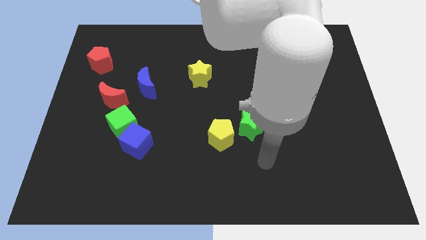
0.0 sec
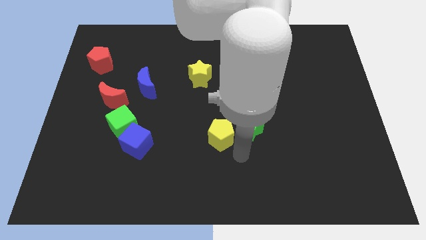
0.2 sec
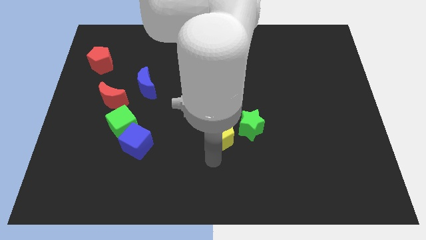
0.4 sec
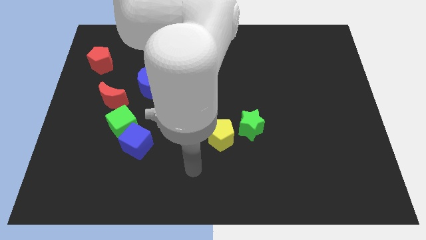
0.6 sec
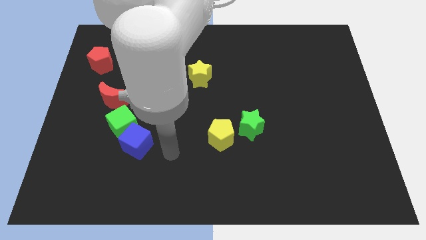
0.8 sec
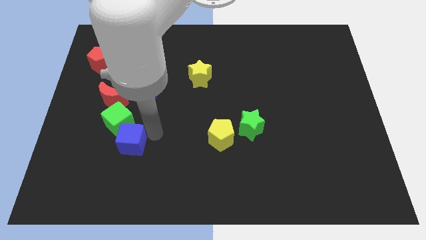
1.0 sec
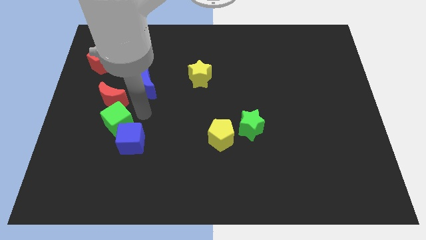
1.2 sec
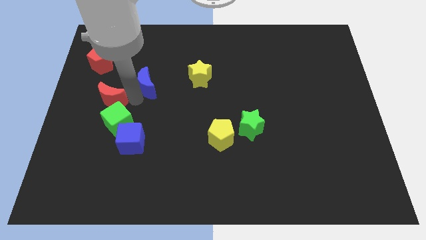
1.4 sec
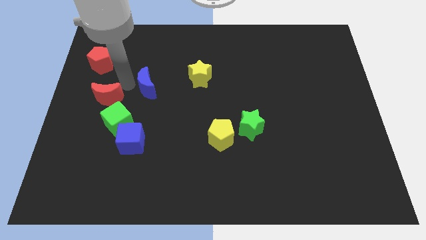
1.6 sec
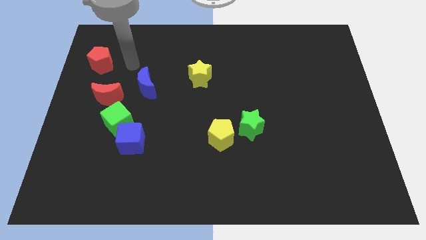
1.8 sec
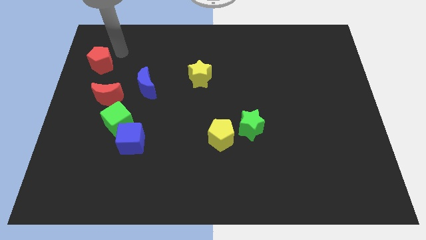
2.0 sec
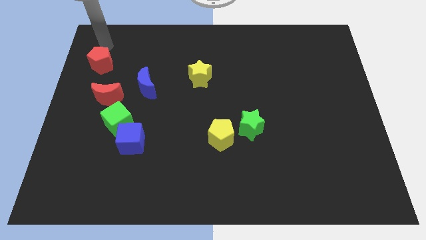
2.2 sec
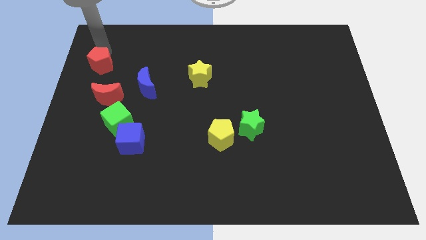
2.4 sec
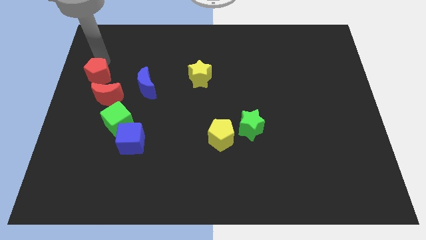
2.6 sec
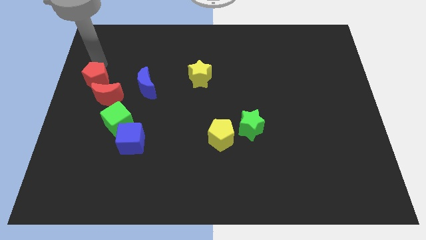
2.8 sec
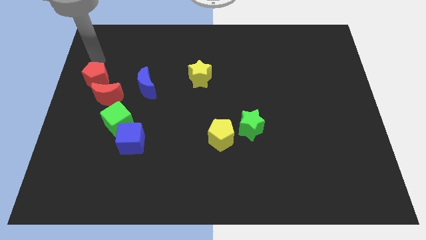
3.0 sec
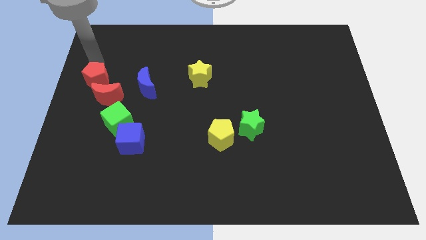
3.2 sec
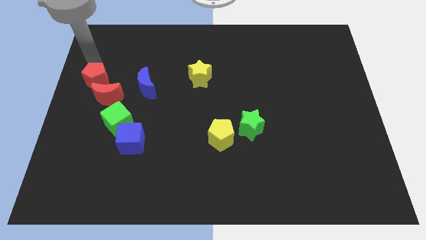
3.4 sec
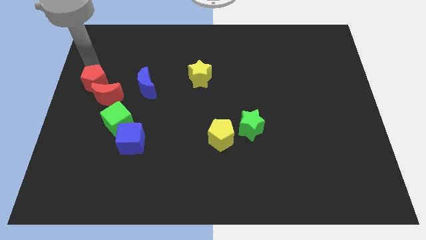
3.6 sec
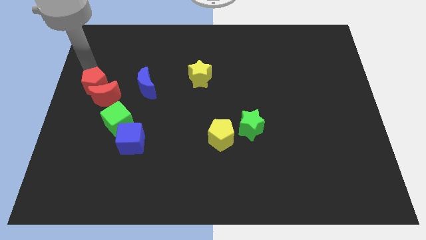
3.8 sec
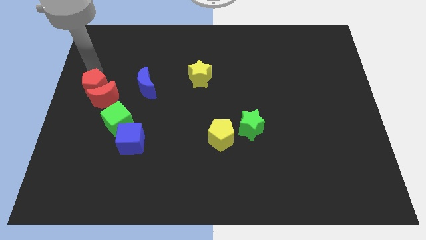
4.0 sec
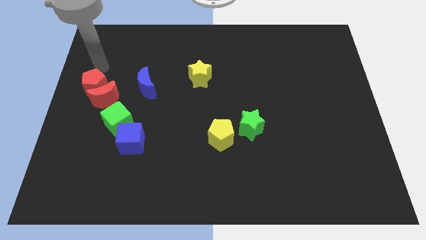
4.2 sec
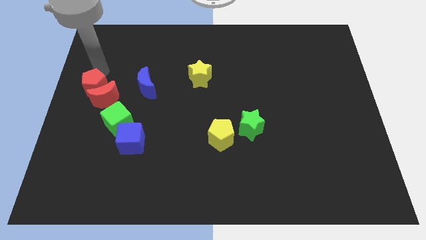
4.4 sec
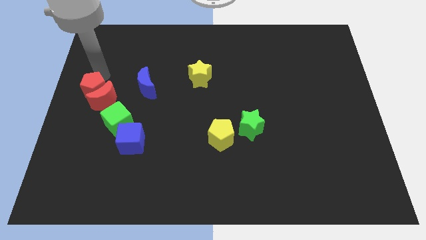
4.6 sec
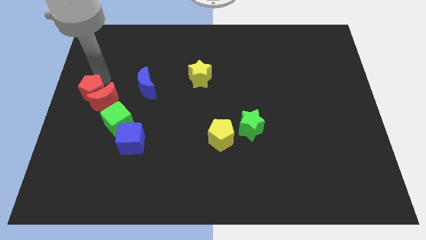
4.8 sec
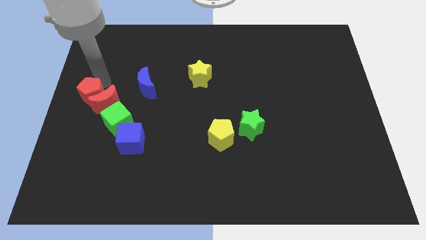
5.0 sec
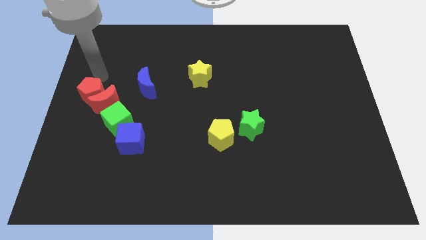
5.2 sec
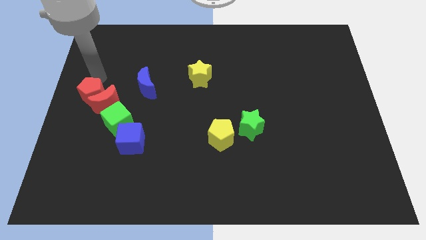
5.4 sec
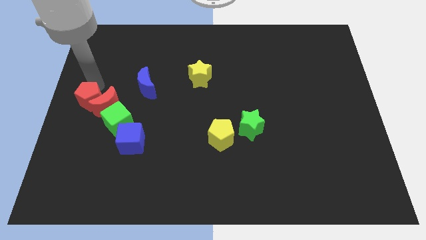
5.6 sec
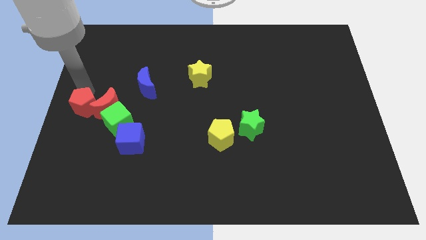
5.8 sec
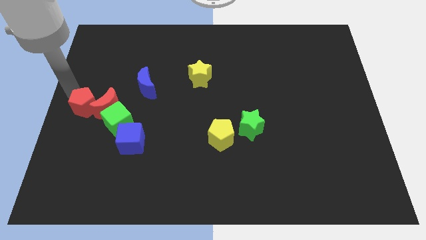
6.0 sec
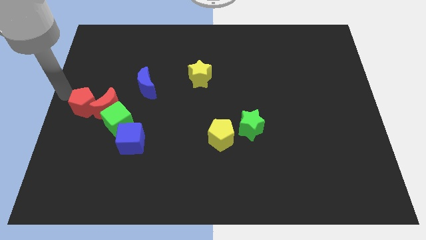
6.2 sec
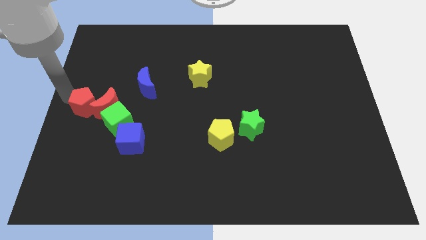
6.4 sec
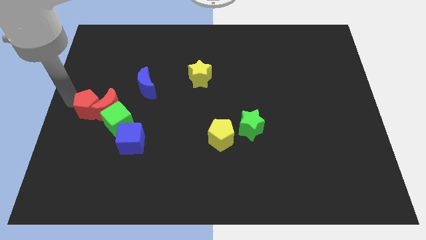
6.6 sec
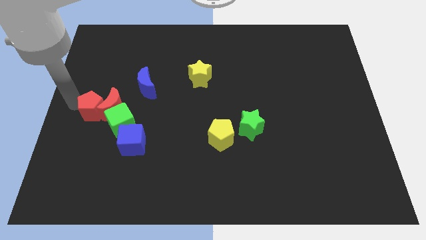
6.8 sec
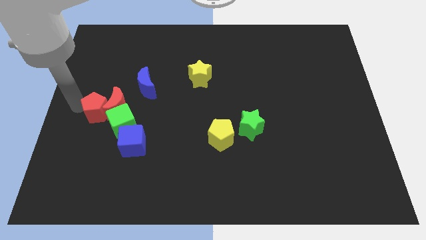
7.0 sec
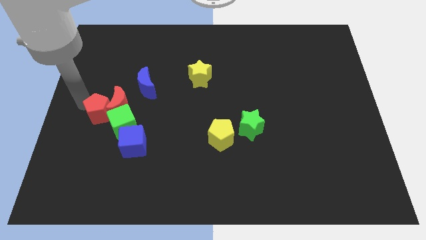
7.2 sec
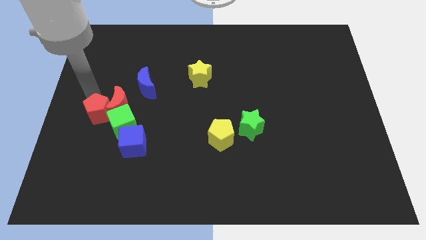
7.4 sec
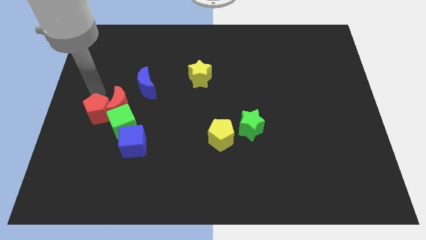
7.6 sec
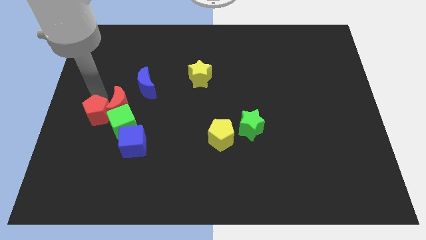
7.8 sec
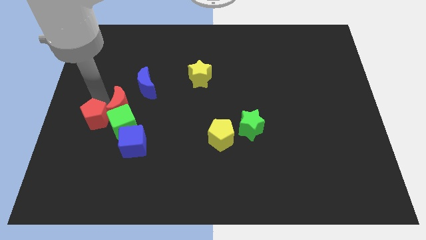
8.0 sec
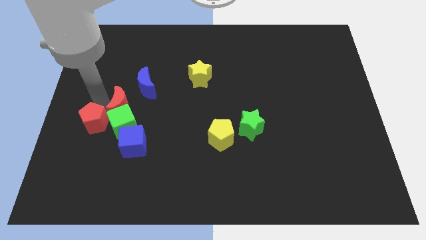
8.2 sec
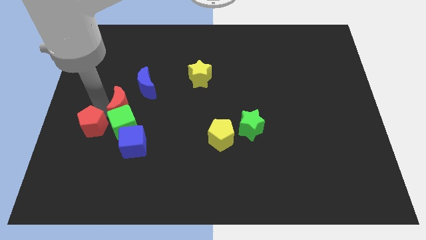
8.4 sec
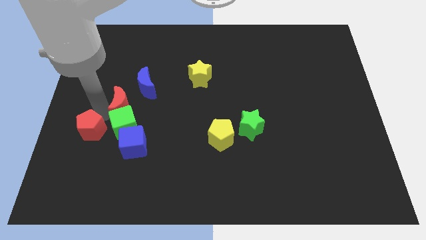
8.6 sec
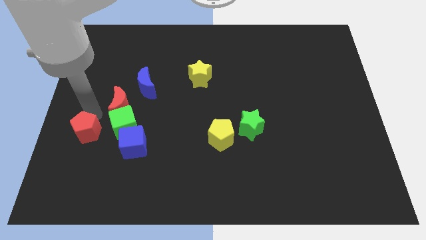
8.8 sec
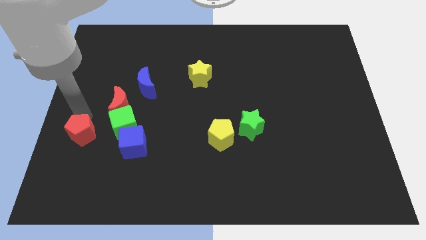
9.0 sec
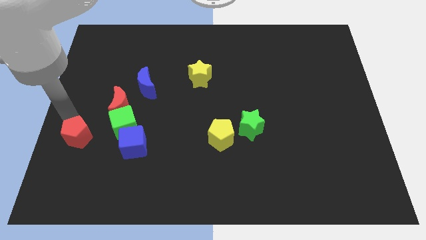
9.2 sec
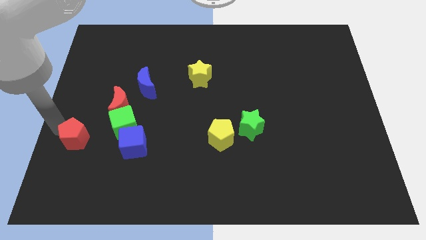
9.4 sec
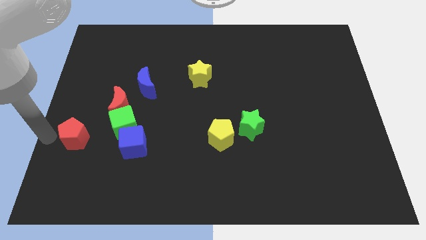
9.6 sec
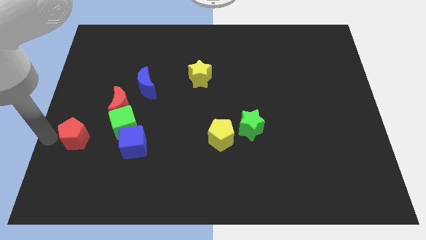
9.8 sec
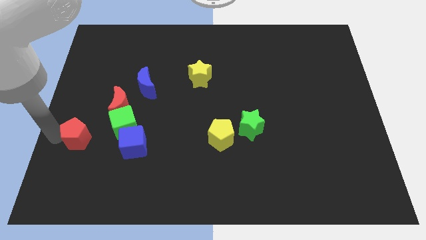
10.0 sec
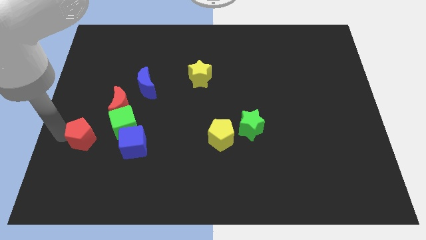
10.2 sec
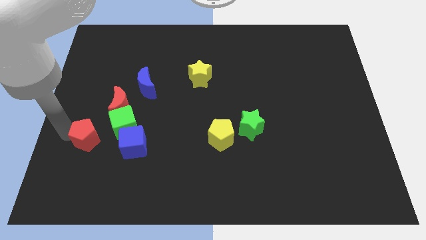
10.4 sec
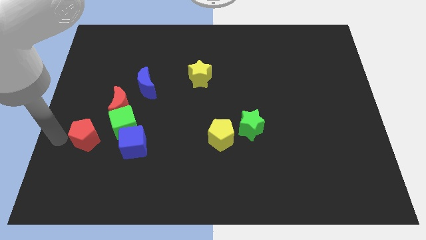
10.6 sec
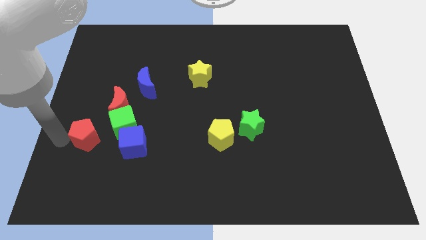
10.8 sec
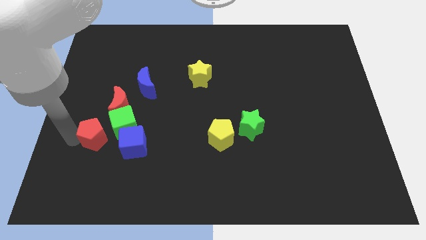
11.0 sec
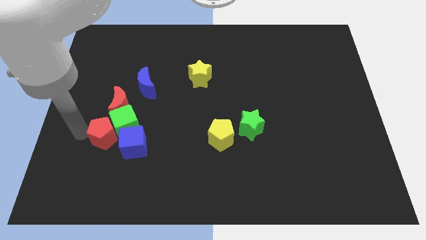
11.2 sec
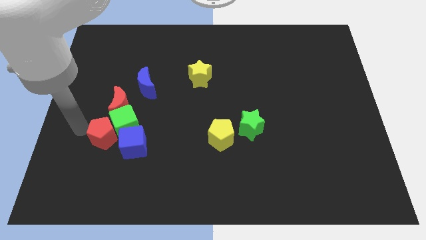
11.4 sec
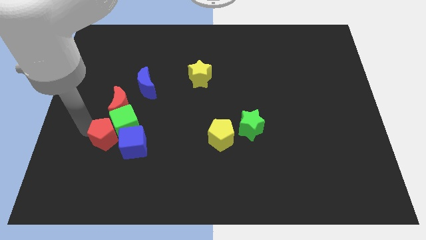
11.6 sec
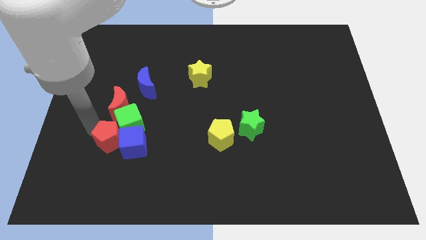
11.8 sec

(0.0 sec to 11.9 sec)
move the red pentagon close to the blue cube
